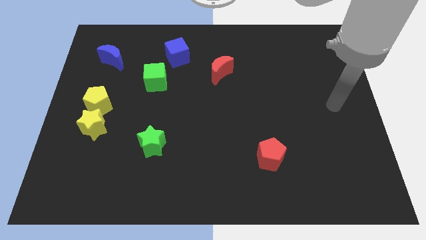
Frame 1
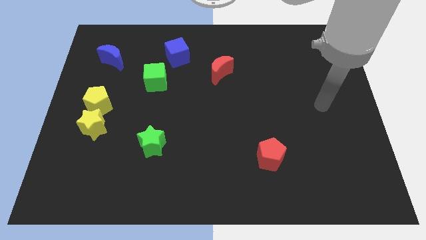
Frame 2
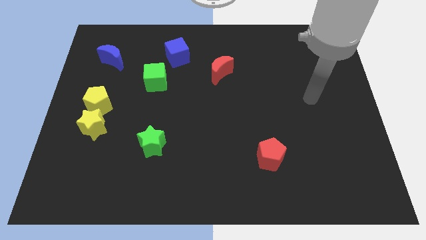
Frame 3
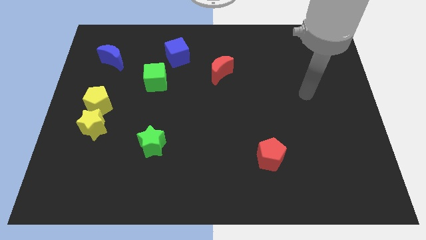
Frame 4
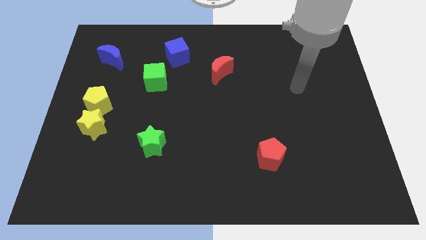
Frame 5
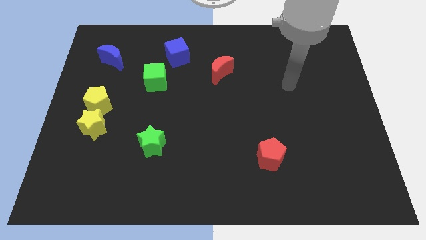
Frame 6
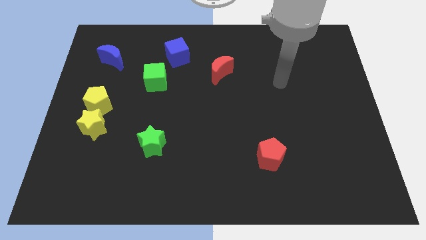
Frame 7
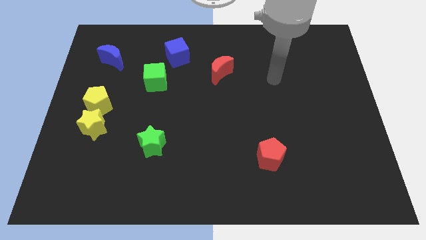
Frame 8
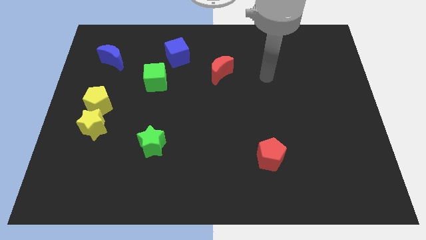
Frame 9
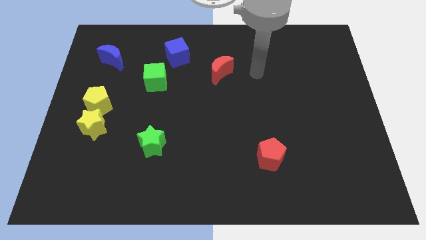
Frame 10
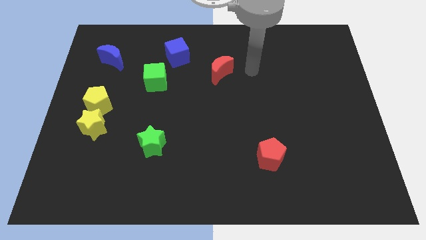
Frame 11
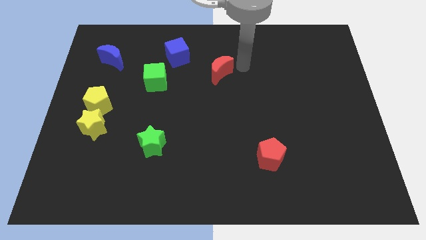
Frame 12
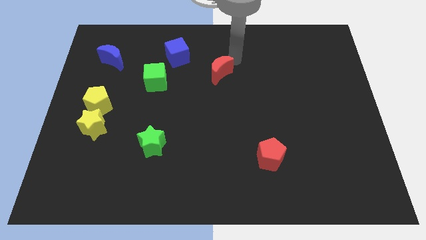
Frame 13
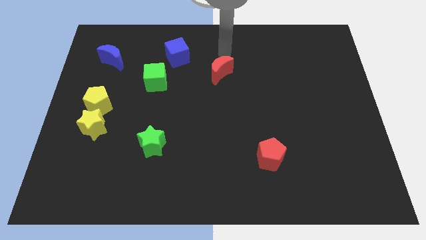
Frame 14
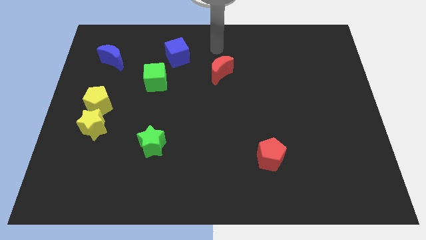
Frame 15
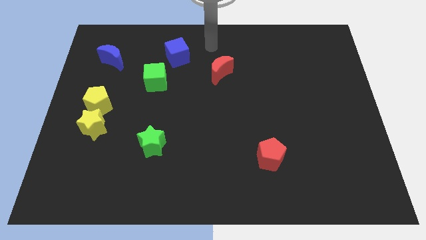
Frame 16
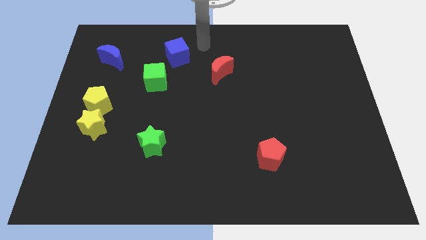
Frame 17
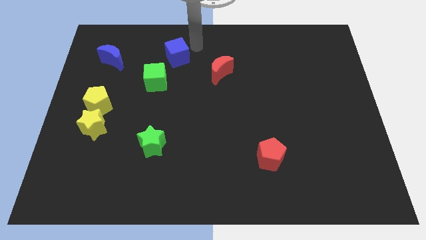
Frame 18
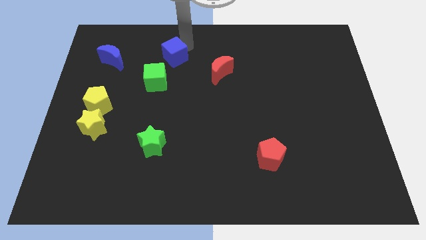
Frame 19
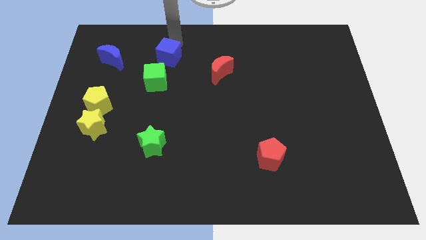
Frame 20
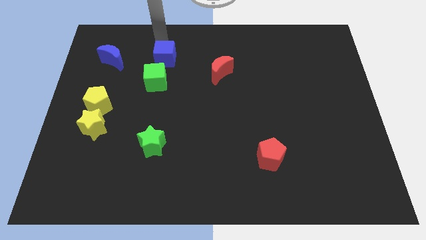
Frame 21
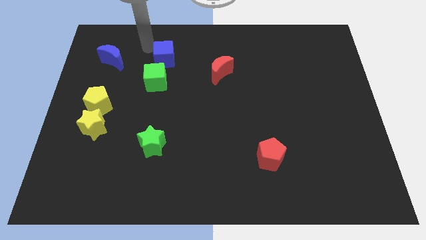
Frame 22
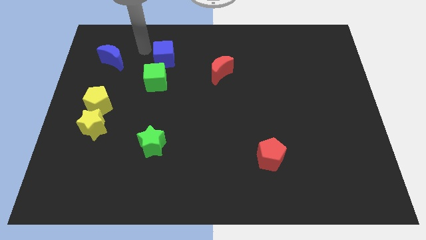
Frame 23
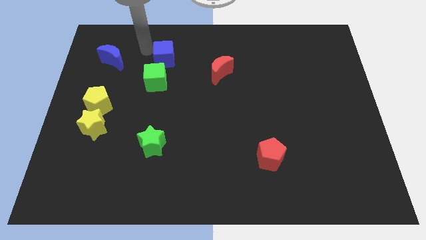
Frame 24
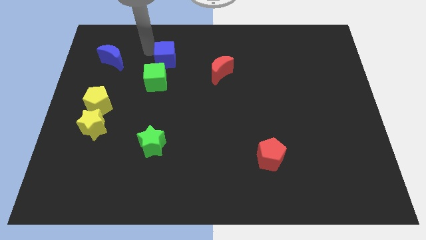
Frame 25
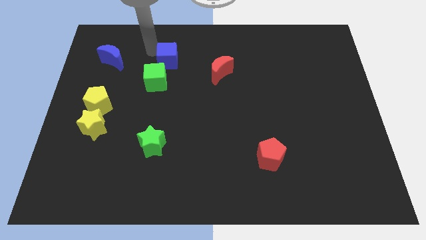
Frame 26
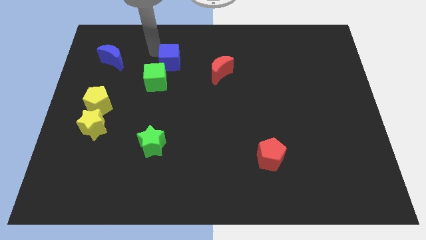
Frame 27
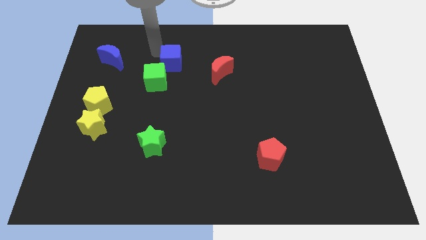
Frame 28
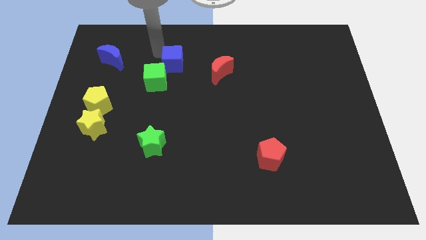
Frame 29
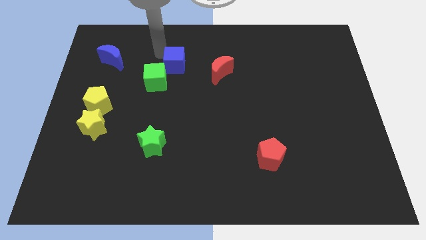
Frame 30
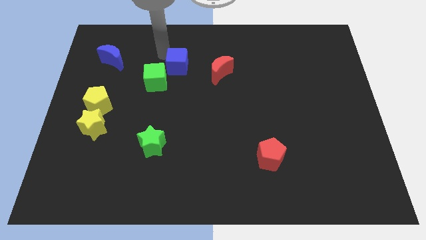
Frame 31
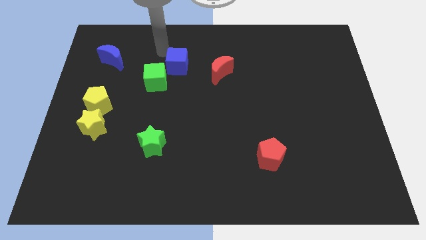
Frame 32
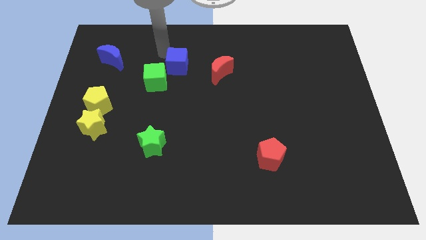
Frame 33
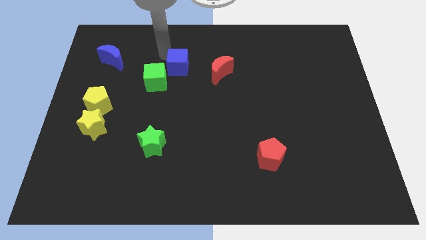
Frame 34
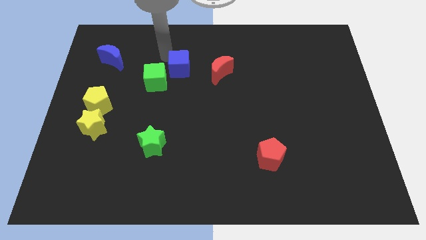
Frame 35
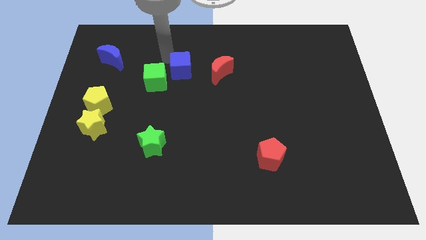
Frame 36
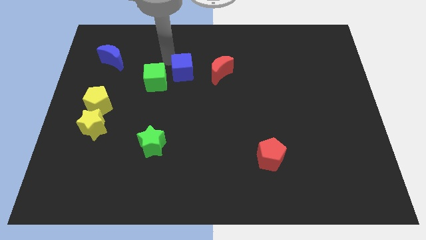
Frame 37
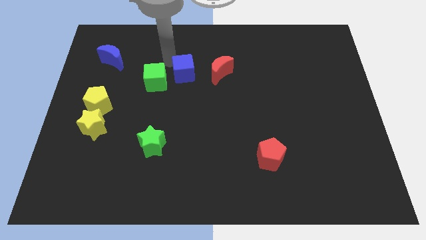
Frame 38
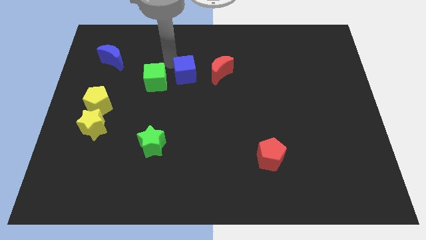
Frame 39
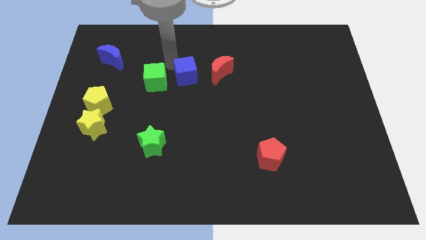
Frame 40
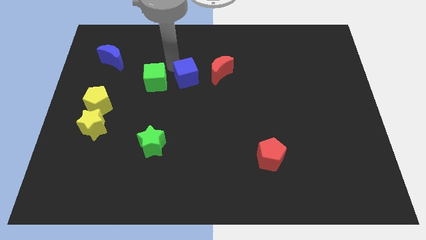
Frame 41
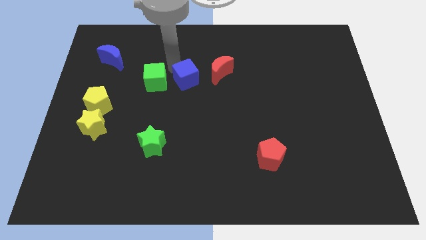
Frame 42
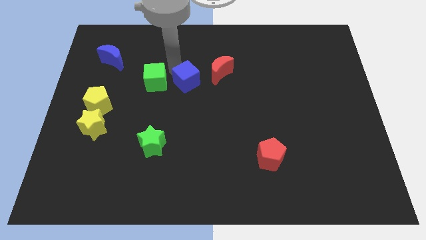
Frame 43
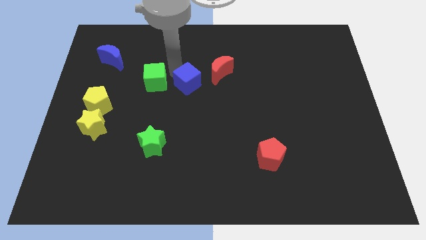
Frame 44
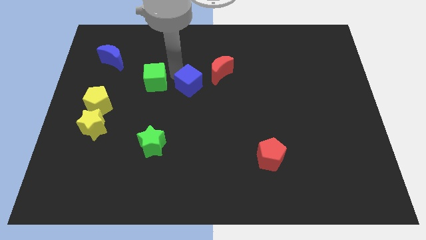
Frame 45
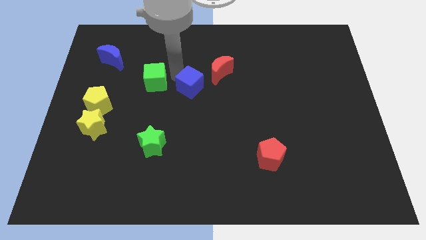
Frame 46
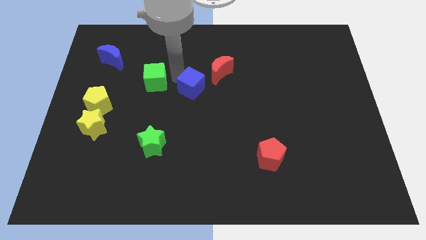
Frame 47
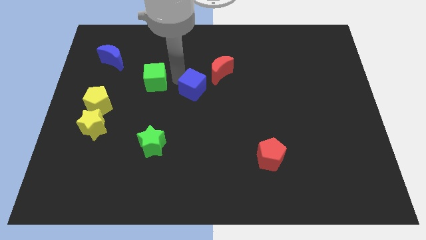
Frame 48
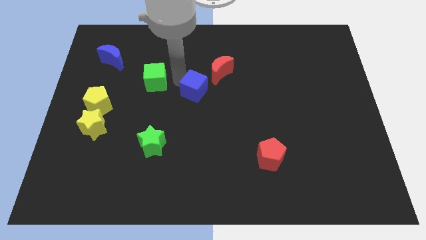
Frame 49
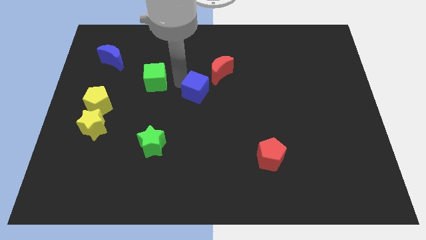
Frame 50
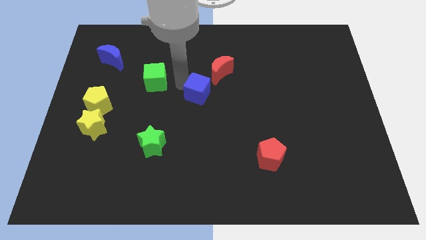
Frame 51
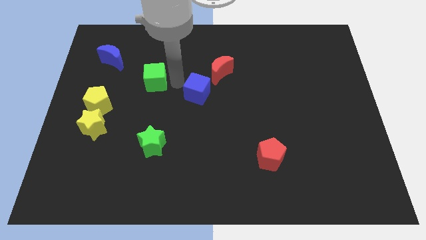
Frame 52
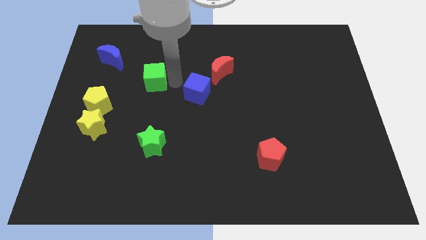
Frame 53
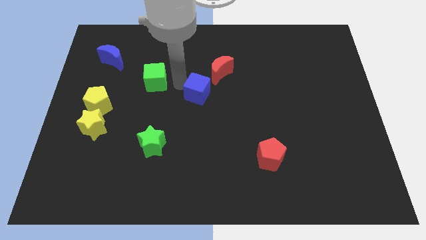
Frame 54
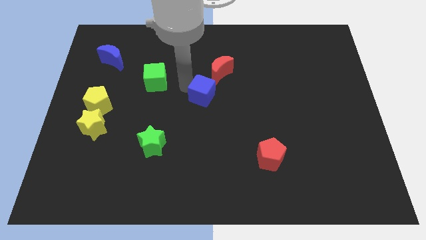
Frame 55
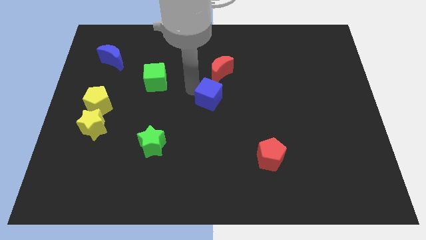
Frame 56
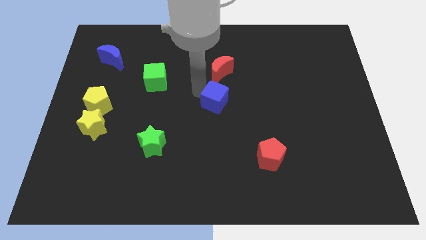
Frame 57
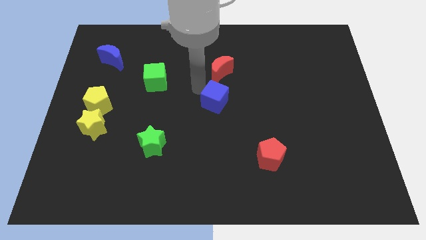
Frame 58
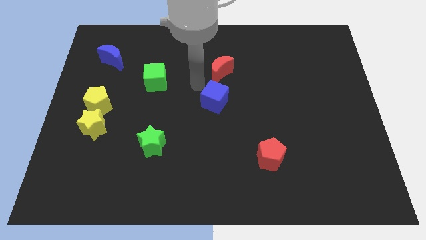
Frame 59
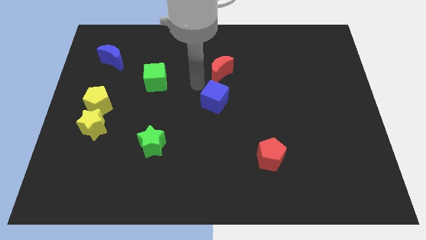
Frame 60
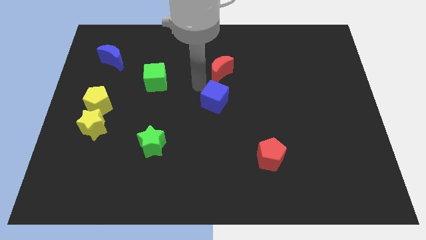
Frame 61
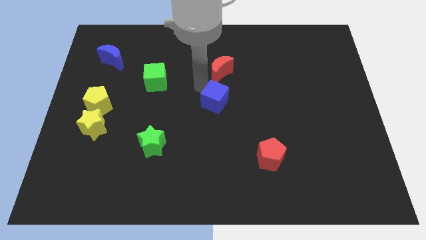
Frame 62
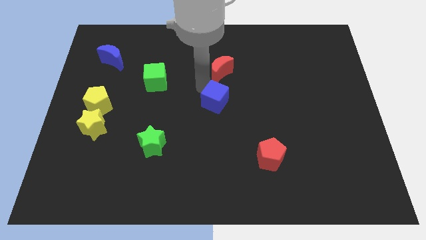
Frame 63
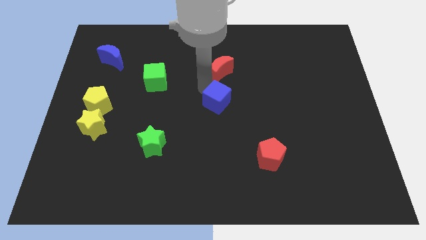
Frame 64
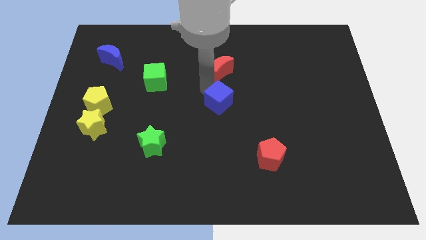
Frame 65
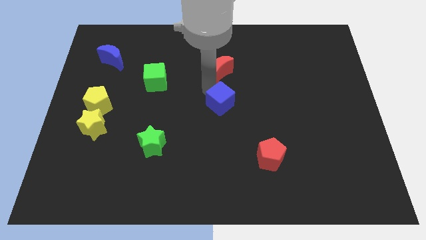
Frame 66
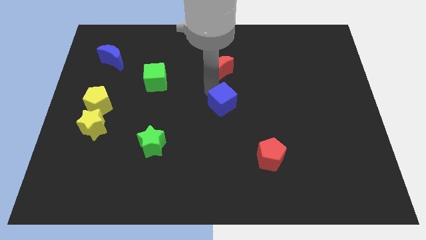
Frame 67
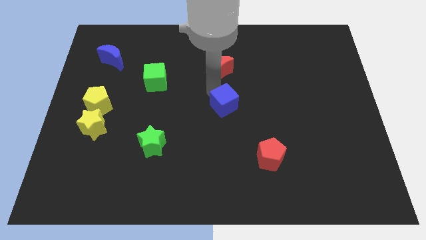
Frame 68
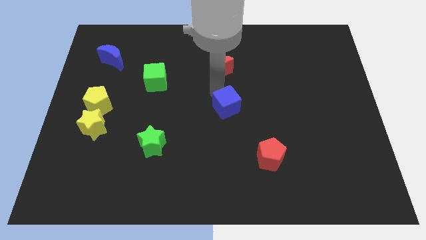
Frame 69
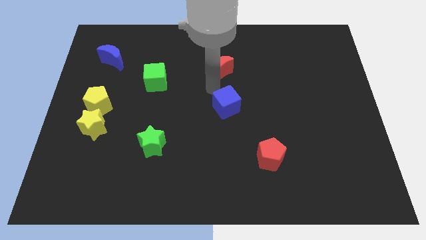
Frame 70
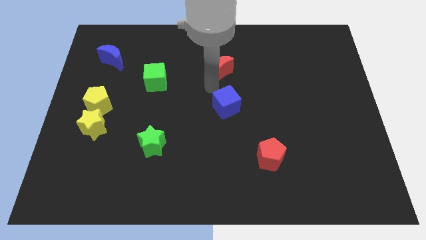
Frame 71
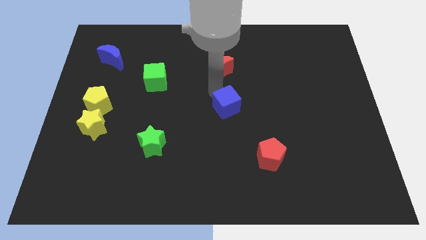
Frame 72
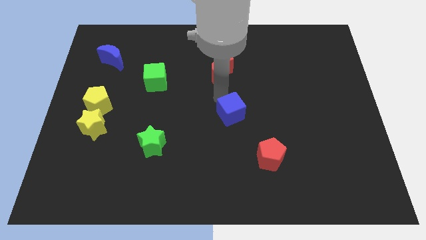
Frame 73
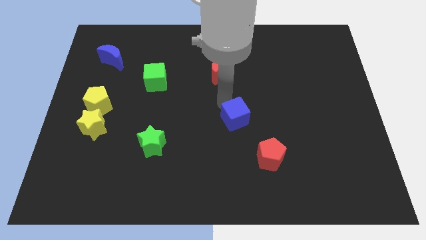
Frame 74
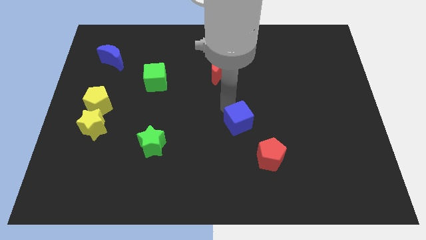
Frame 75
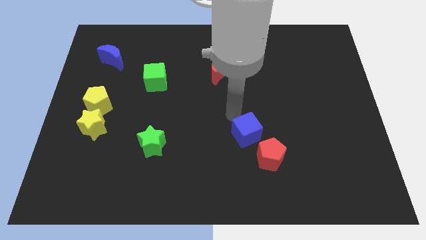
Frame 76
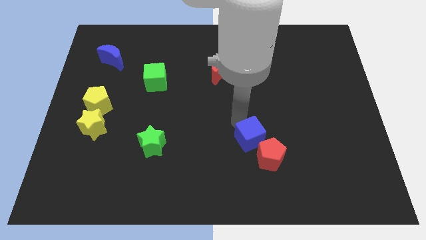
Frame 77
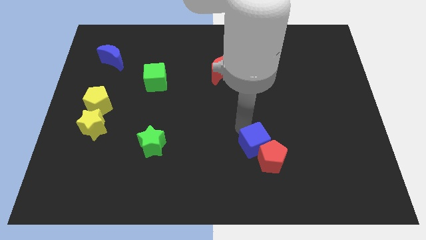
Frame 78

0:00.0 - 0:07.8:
push the blue cube towards the red pentagon

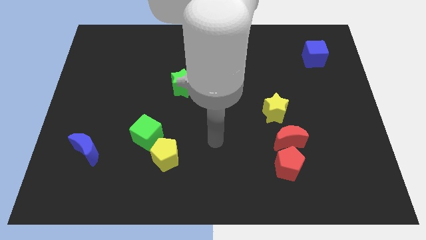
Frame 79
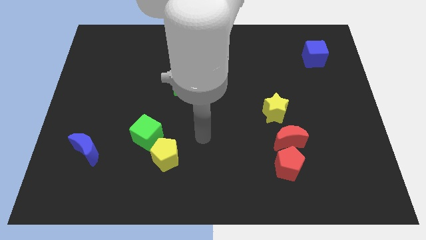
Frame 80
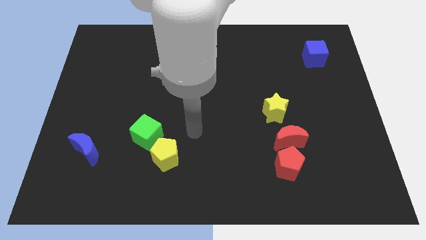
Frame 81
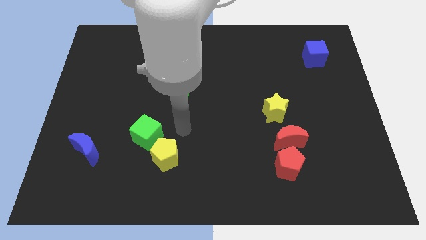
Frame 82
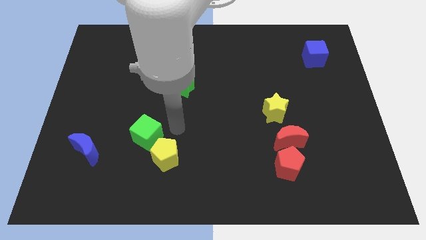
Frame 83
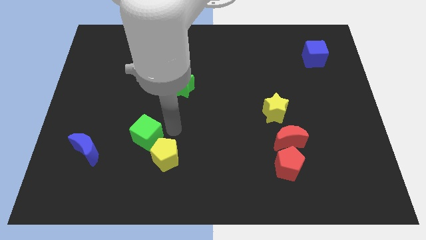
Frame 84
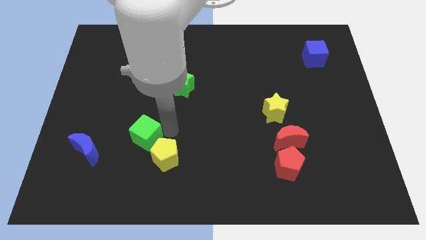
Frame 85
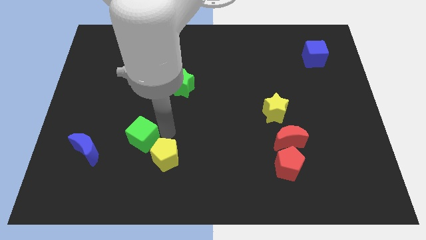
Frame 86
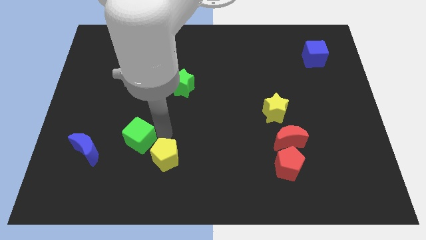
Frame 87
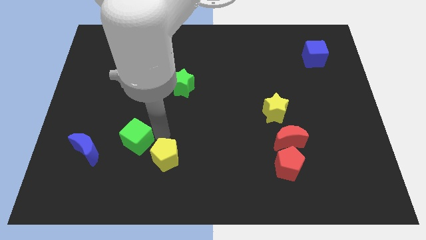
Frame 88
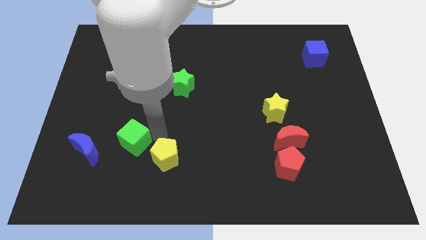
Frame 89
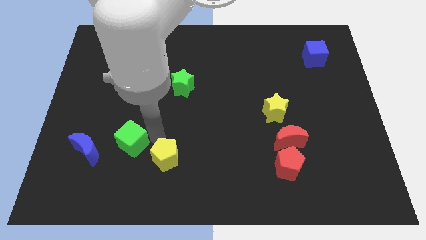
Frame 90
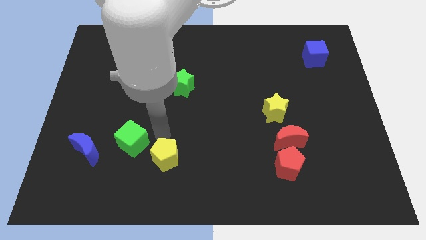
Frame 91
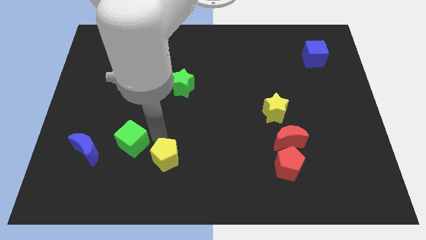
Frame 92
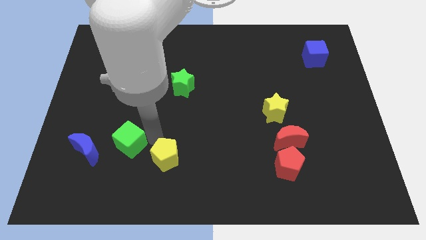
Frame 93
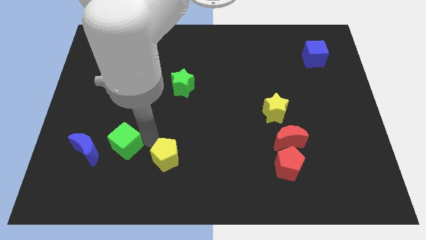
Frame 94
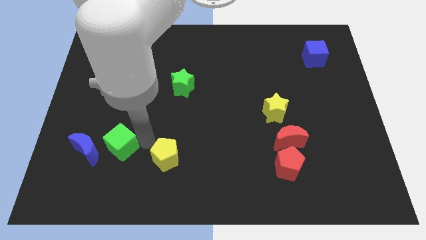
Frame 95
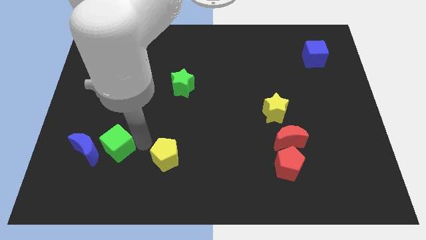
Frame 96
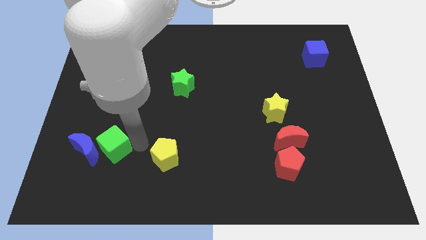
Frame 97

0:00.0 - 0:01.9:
put the green cube towards the blue moon
